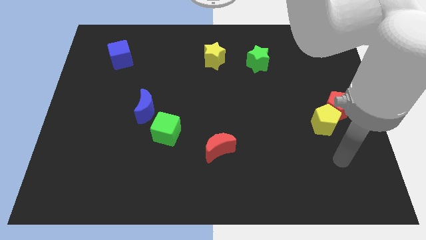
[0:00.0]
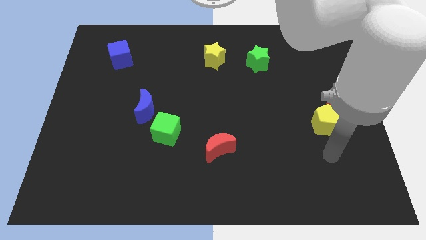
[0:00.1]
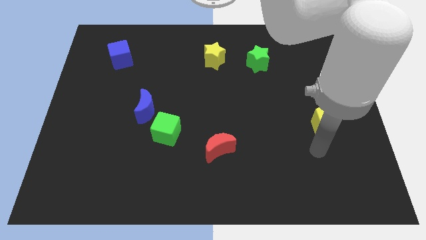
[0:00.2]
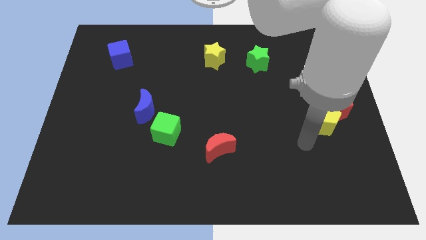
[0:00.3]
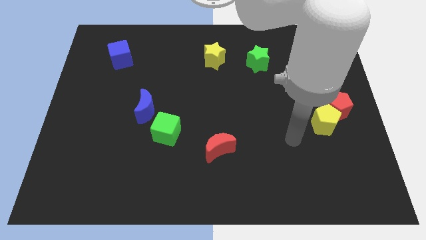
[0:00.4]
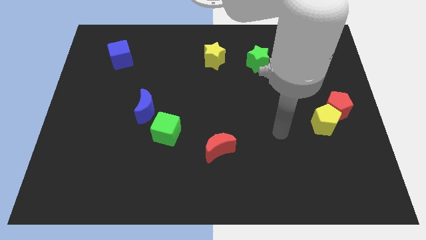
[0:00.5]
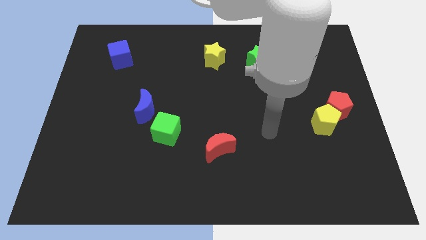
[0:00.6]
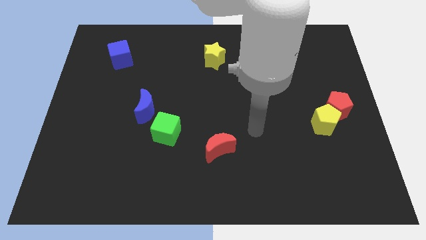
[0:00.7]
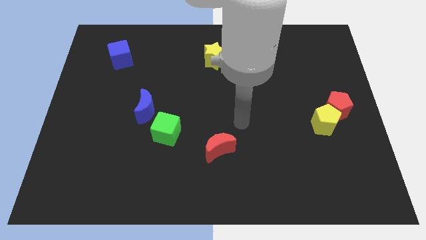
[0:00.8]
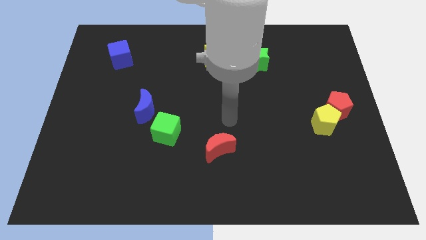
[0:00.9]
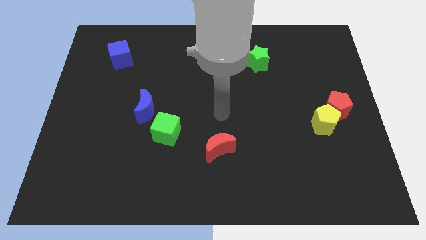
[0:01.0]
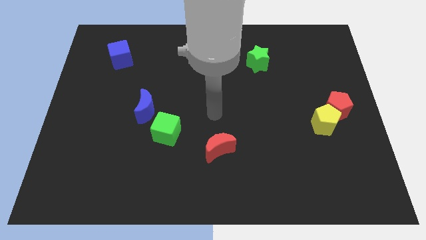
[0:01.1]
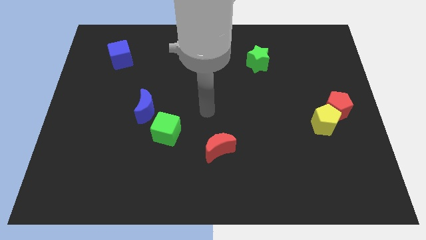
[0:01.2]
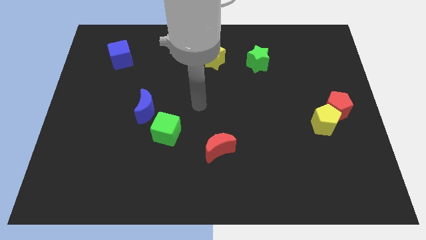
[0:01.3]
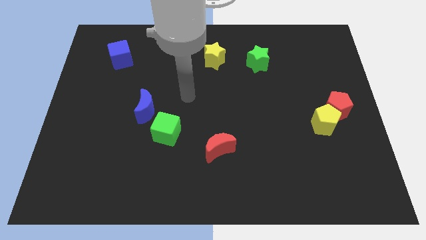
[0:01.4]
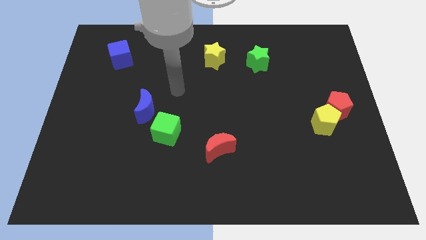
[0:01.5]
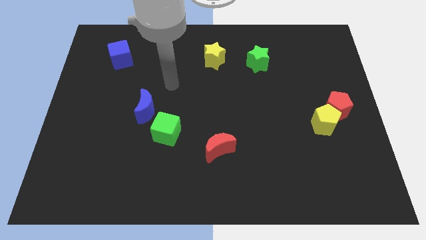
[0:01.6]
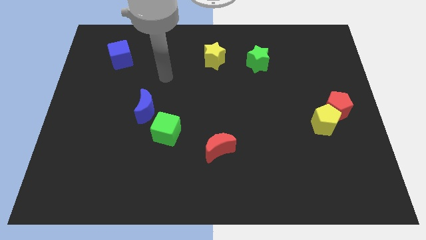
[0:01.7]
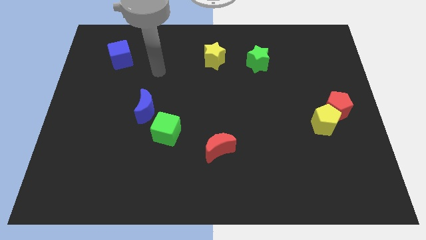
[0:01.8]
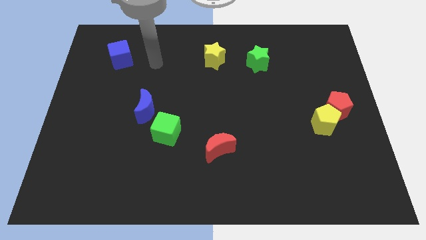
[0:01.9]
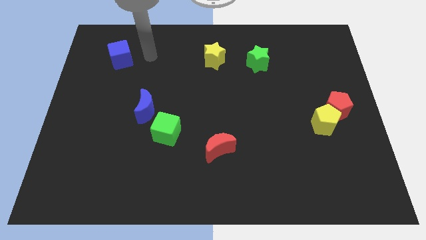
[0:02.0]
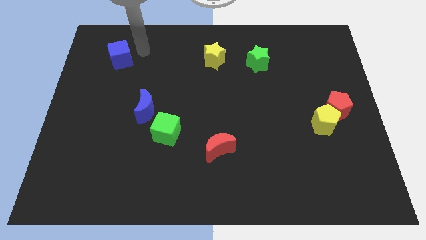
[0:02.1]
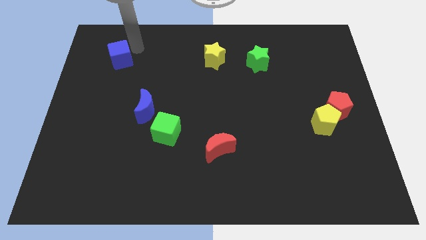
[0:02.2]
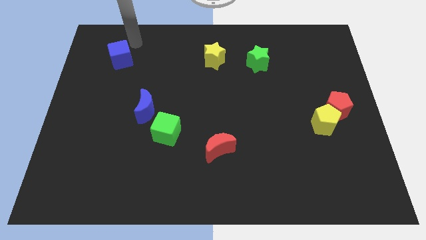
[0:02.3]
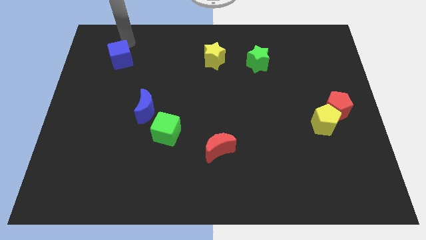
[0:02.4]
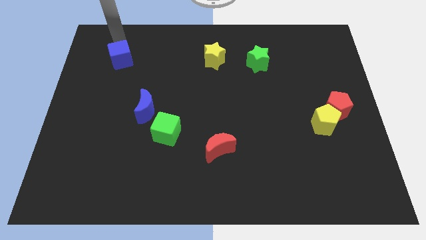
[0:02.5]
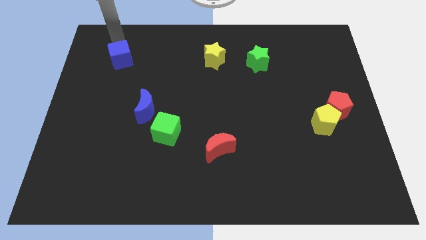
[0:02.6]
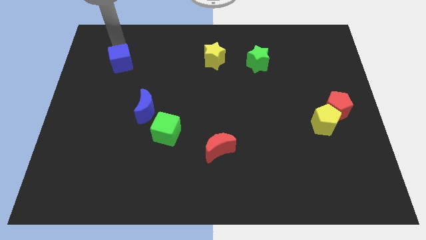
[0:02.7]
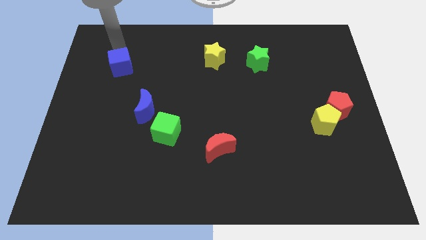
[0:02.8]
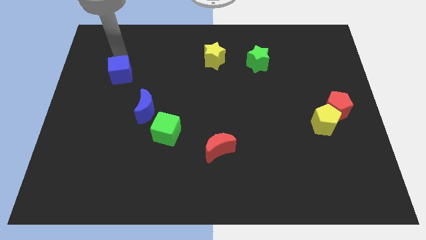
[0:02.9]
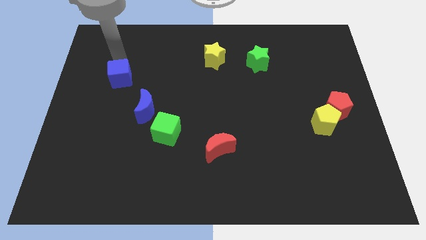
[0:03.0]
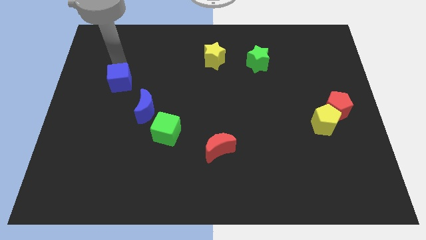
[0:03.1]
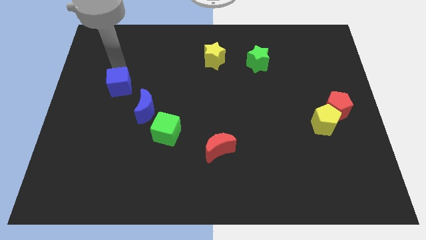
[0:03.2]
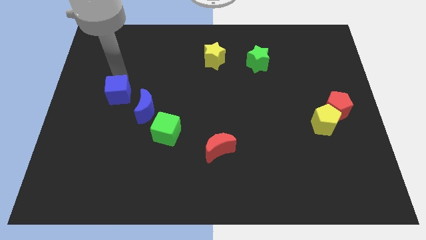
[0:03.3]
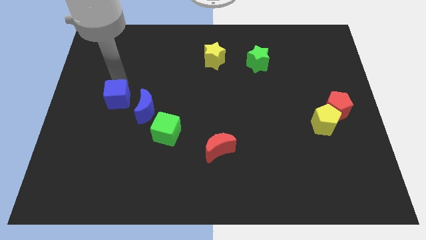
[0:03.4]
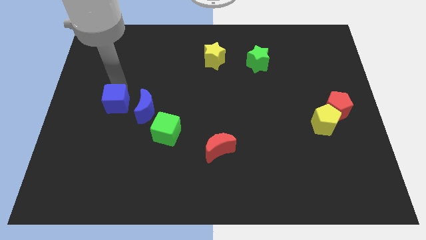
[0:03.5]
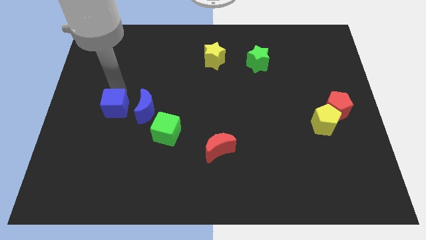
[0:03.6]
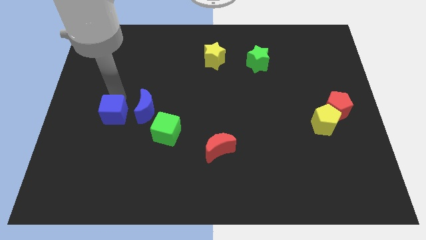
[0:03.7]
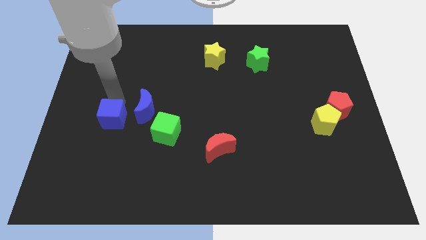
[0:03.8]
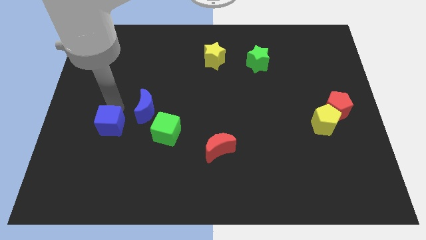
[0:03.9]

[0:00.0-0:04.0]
push the blue cube down

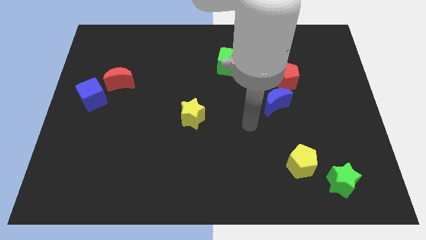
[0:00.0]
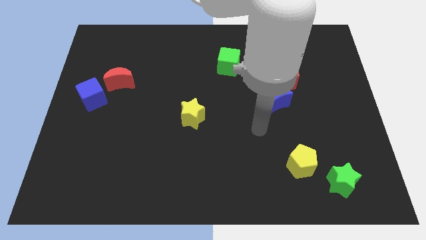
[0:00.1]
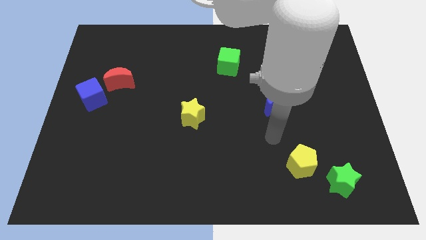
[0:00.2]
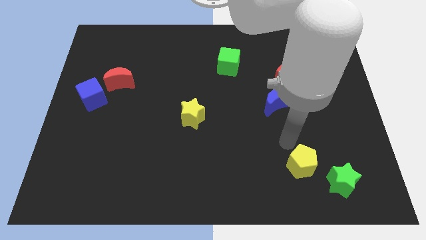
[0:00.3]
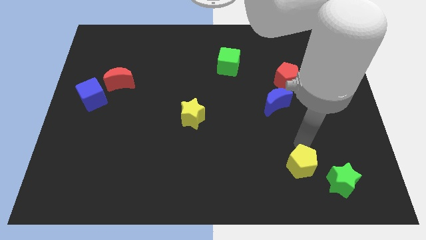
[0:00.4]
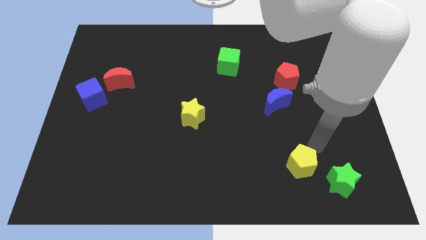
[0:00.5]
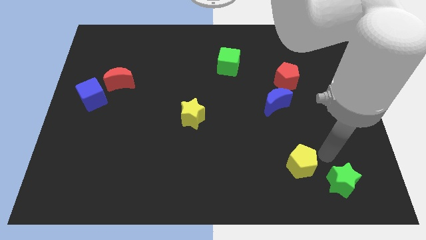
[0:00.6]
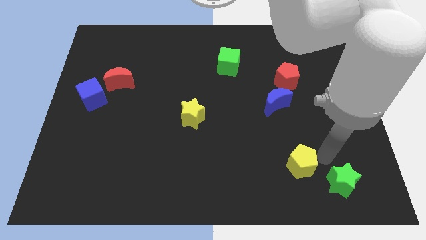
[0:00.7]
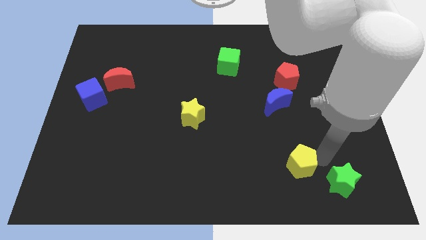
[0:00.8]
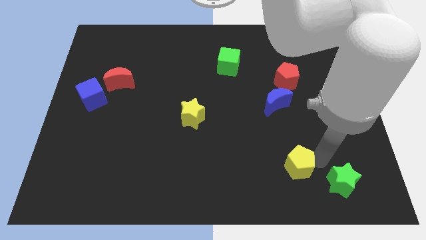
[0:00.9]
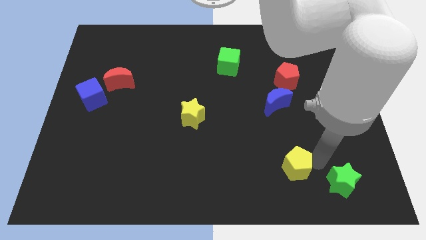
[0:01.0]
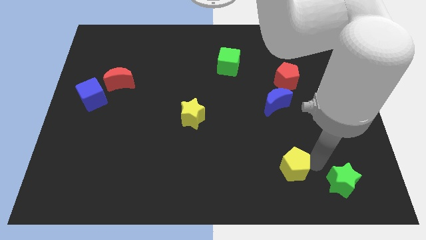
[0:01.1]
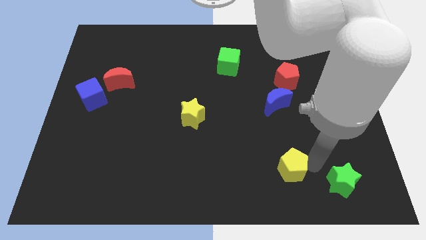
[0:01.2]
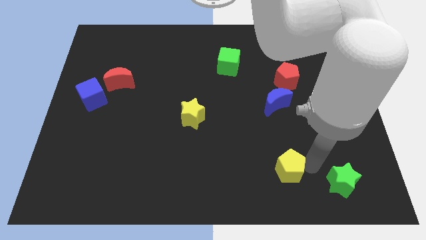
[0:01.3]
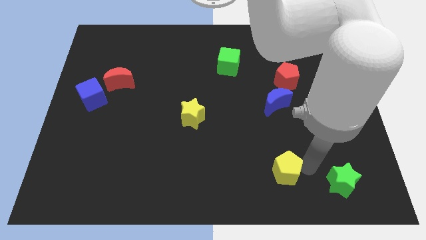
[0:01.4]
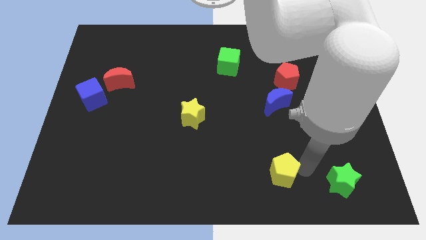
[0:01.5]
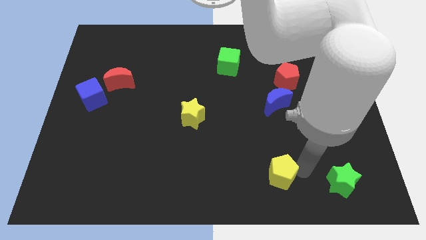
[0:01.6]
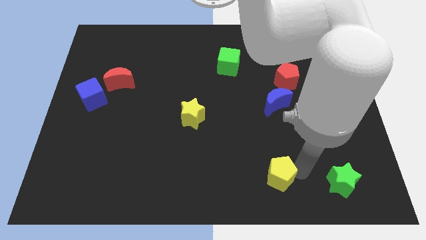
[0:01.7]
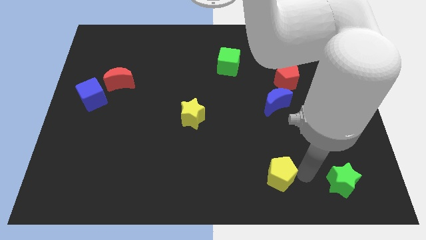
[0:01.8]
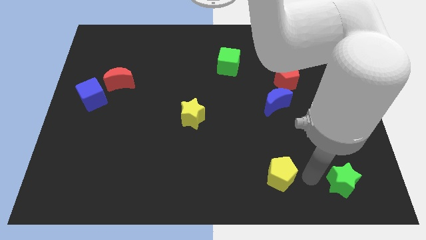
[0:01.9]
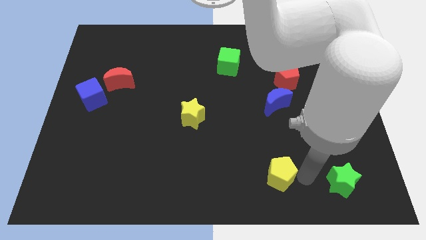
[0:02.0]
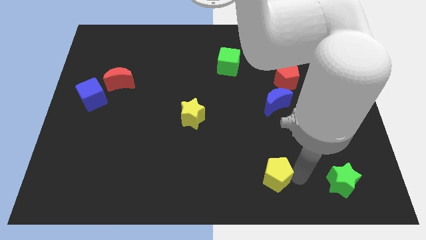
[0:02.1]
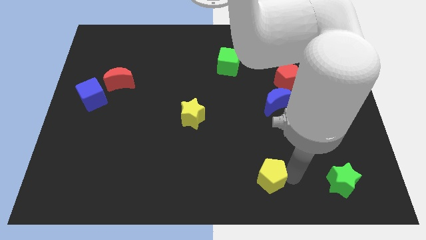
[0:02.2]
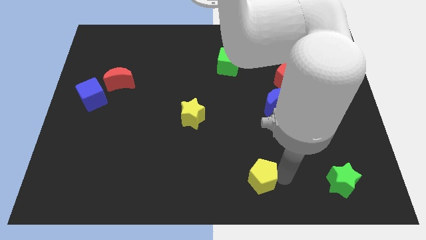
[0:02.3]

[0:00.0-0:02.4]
slide the yellow pentagon somewhat to the left

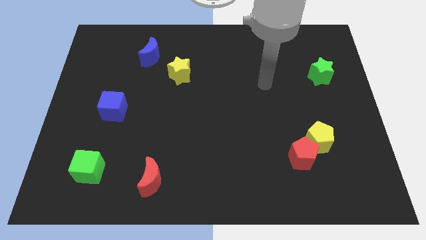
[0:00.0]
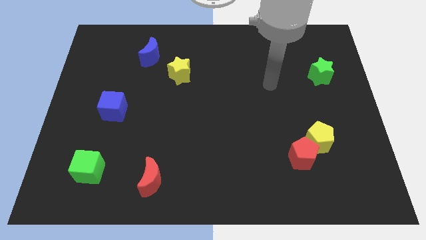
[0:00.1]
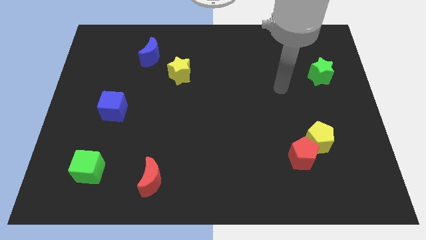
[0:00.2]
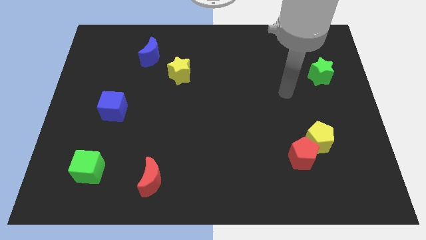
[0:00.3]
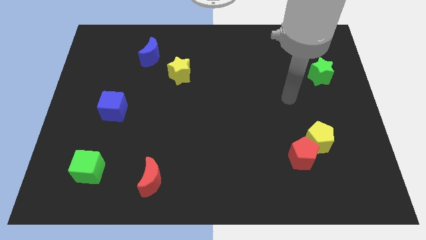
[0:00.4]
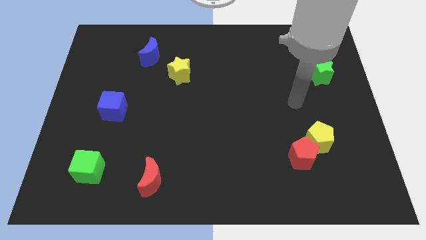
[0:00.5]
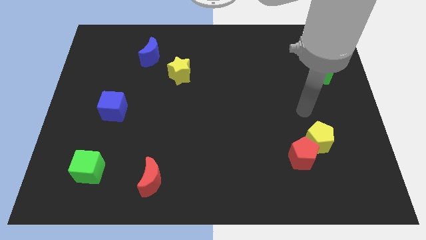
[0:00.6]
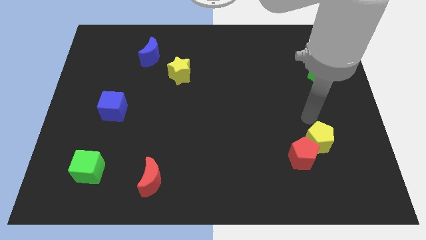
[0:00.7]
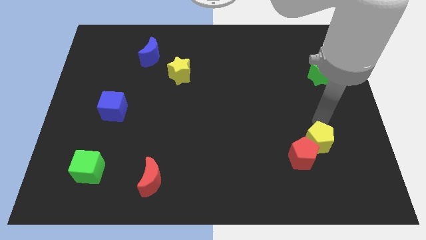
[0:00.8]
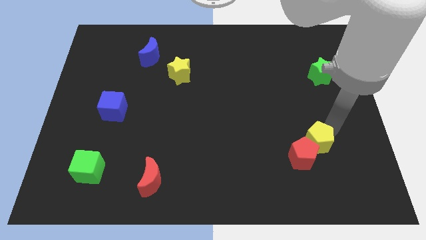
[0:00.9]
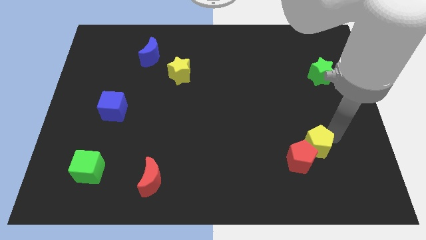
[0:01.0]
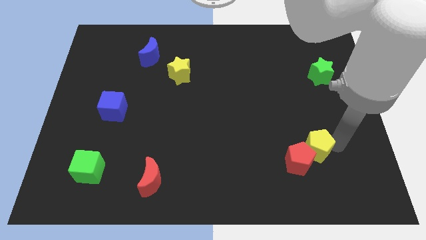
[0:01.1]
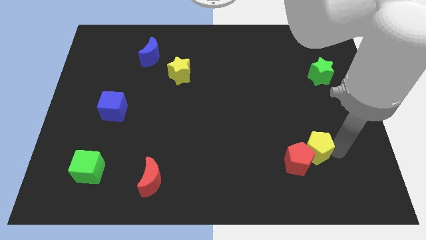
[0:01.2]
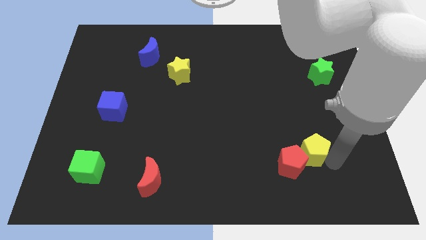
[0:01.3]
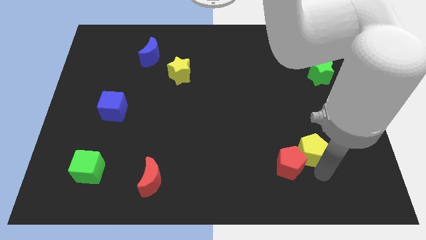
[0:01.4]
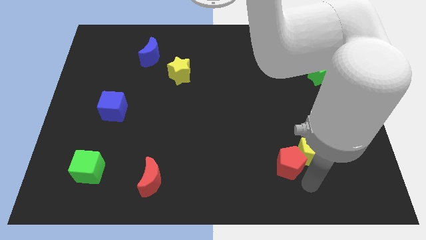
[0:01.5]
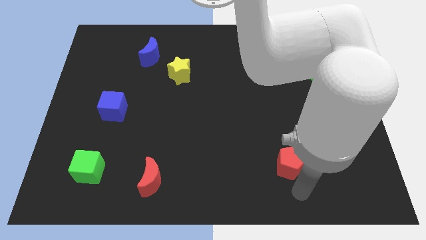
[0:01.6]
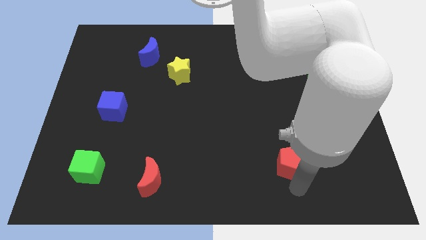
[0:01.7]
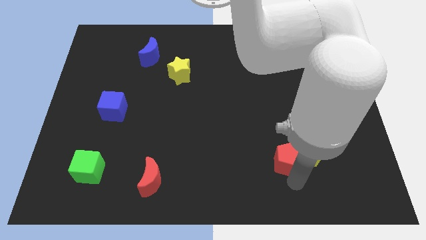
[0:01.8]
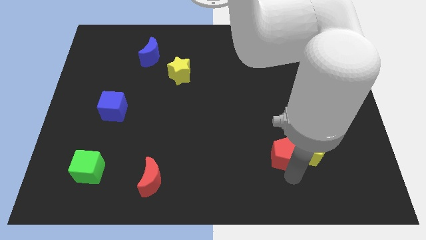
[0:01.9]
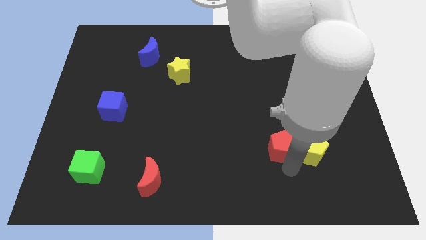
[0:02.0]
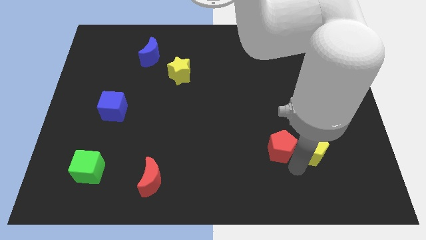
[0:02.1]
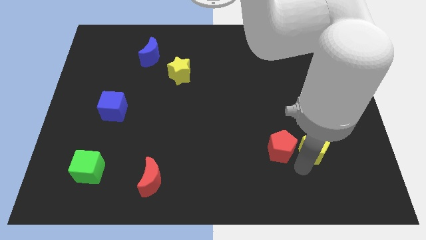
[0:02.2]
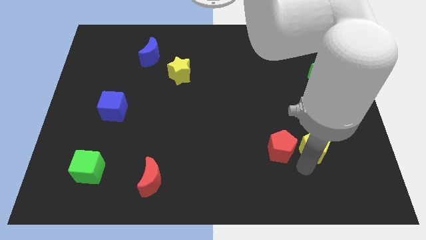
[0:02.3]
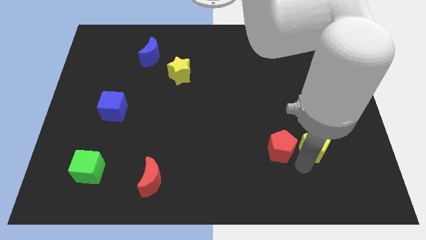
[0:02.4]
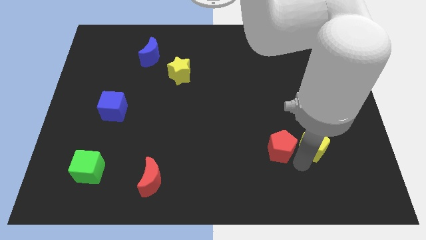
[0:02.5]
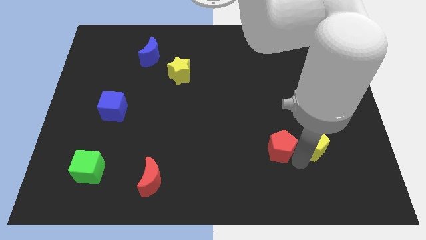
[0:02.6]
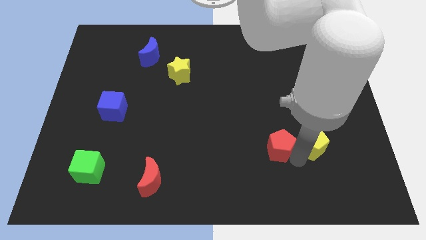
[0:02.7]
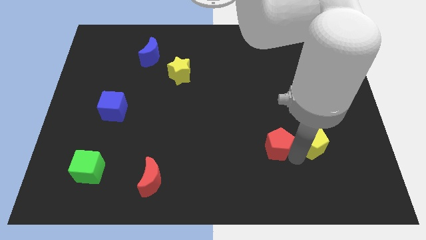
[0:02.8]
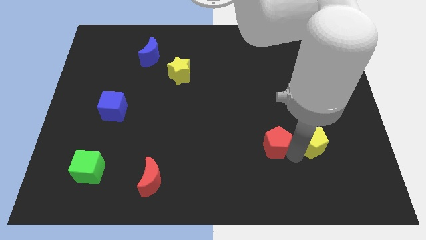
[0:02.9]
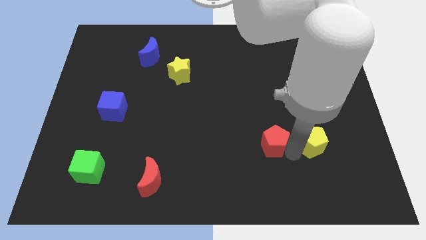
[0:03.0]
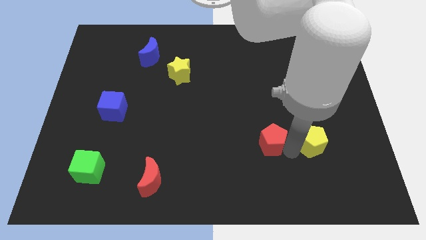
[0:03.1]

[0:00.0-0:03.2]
slightly move the red pentagon upwards and then to the left
